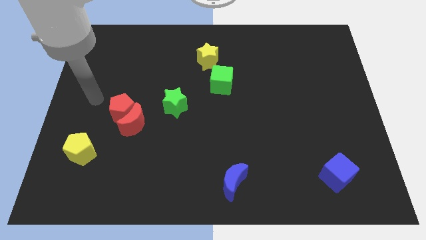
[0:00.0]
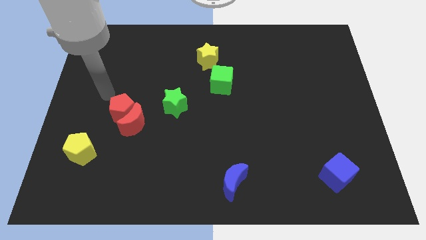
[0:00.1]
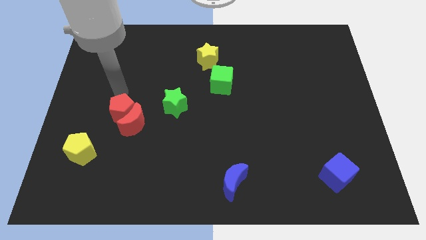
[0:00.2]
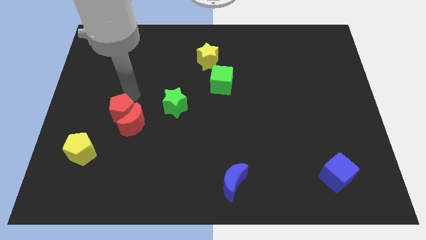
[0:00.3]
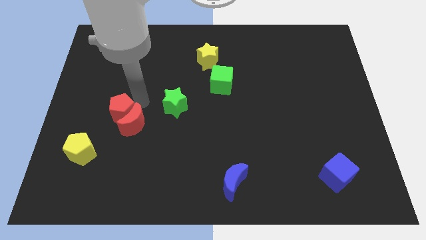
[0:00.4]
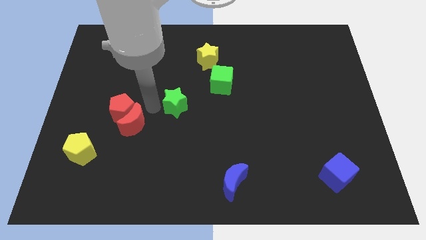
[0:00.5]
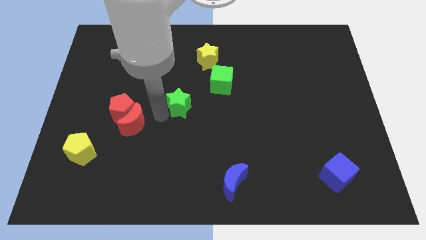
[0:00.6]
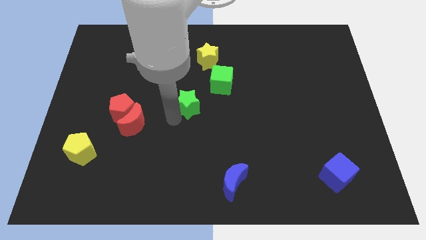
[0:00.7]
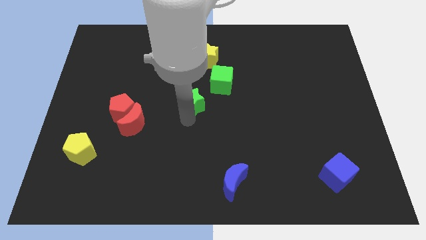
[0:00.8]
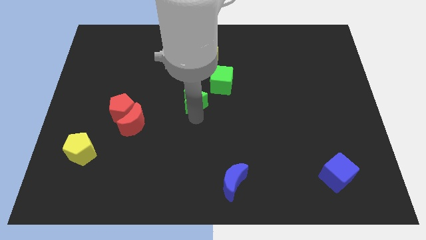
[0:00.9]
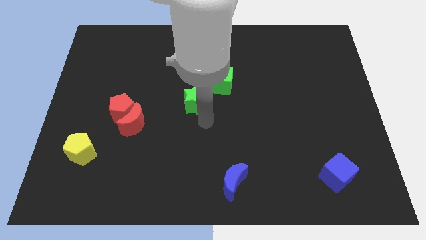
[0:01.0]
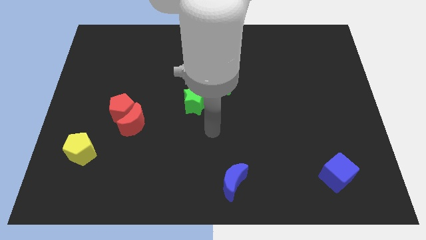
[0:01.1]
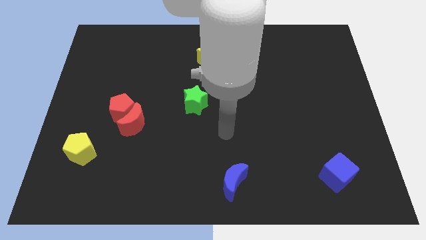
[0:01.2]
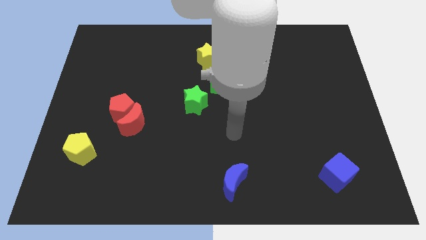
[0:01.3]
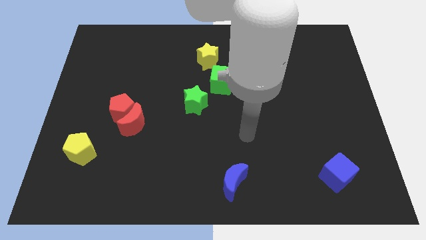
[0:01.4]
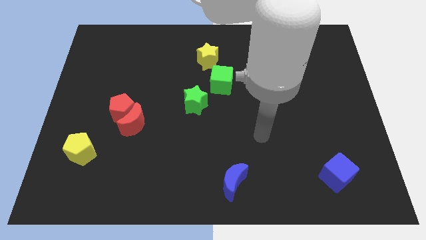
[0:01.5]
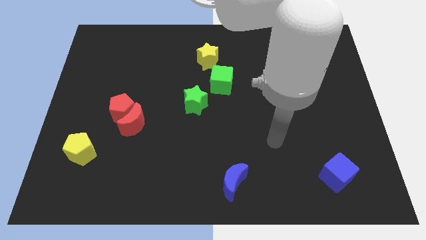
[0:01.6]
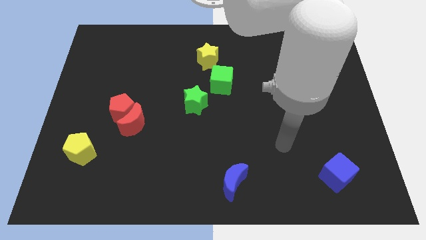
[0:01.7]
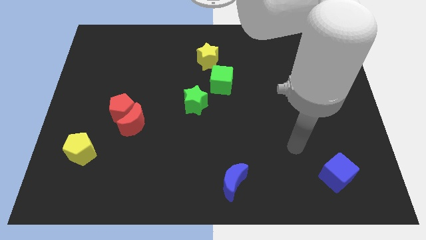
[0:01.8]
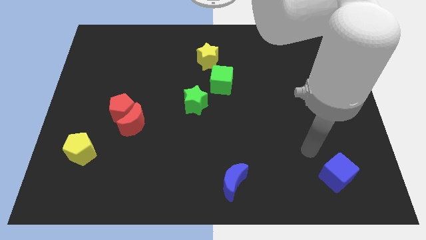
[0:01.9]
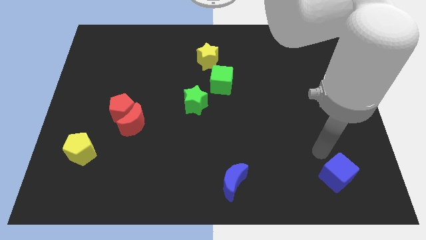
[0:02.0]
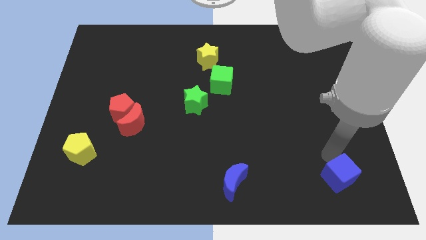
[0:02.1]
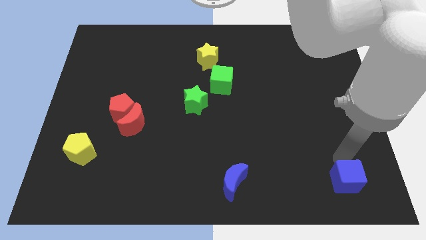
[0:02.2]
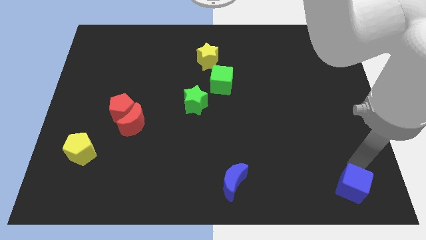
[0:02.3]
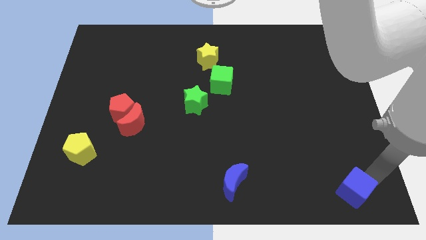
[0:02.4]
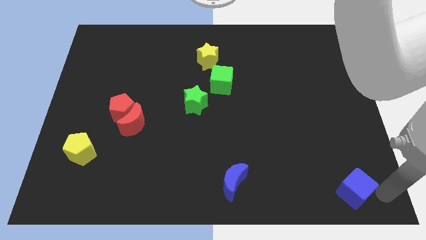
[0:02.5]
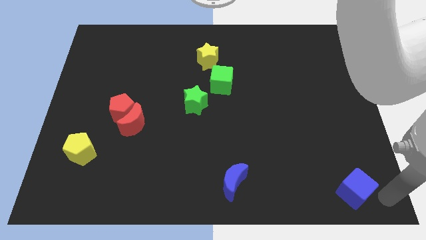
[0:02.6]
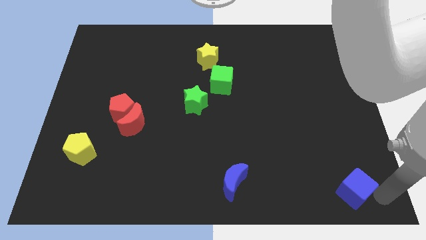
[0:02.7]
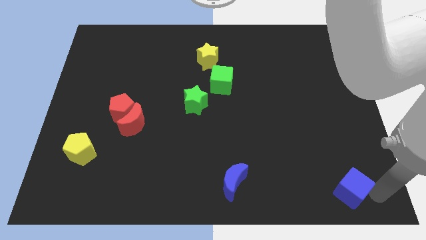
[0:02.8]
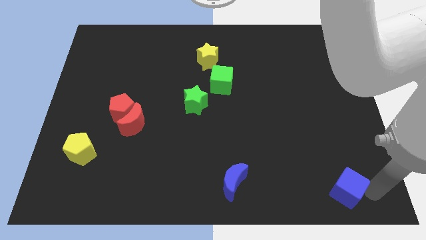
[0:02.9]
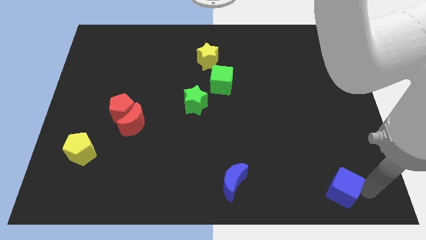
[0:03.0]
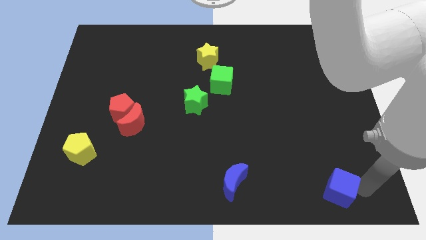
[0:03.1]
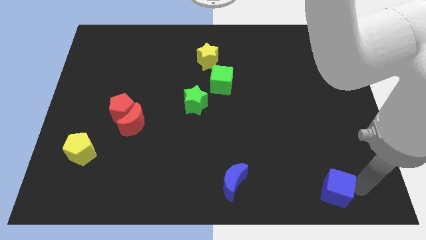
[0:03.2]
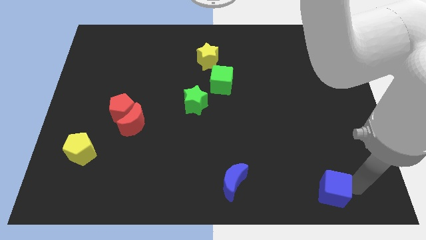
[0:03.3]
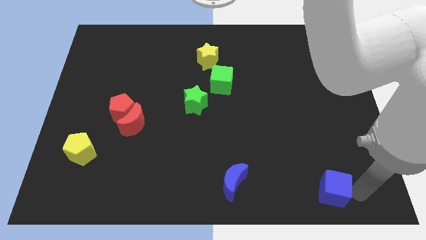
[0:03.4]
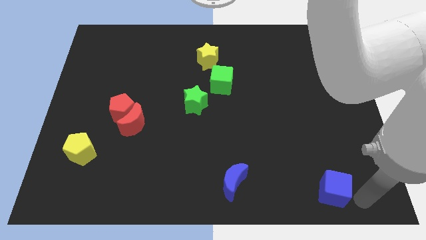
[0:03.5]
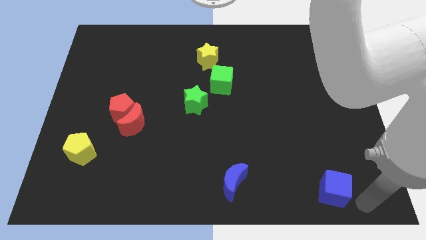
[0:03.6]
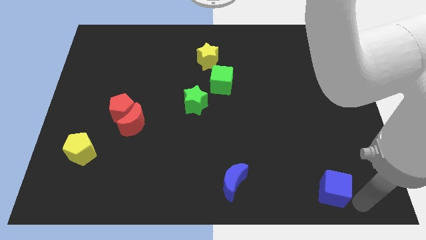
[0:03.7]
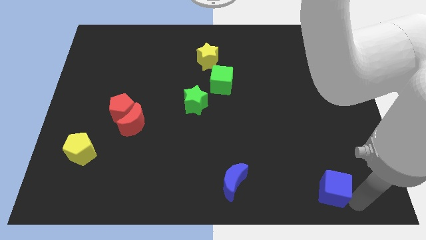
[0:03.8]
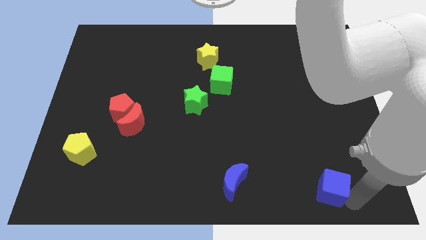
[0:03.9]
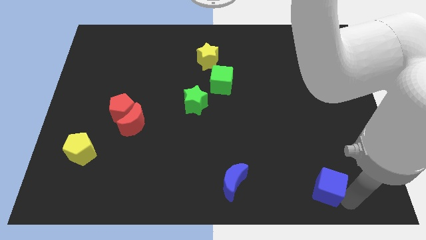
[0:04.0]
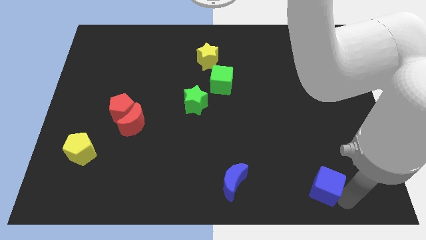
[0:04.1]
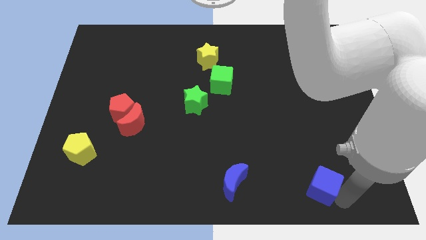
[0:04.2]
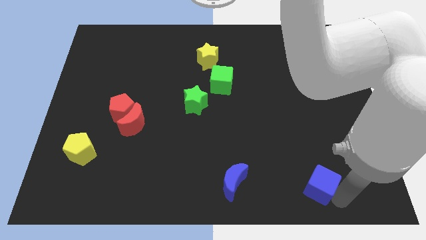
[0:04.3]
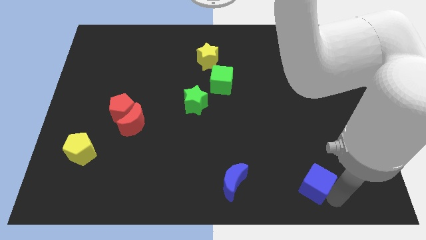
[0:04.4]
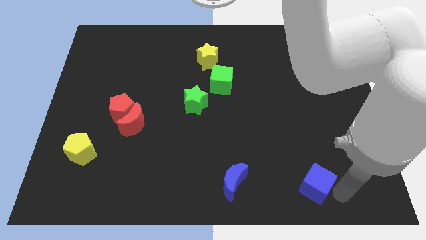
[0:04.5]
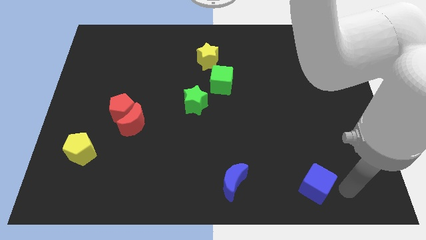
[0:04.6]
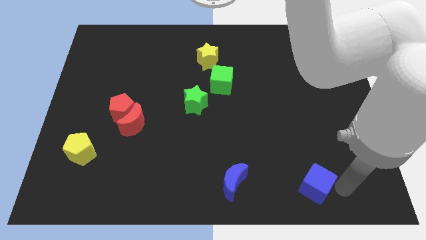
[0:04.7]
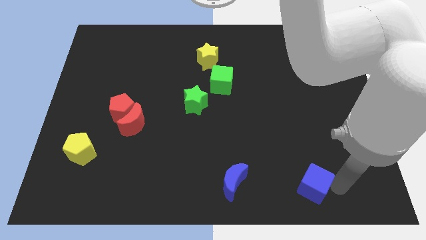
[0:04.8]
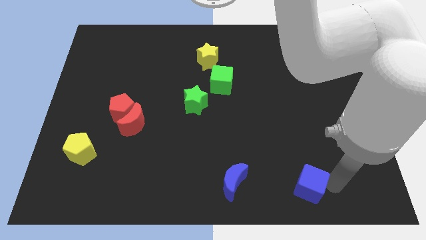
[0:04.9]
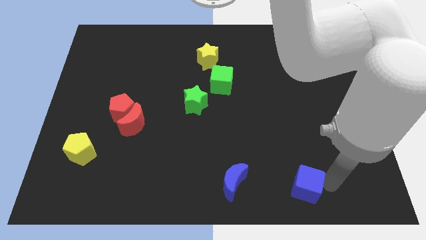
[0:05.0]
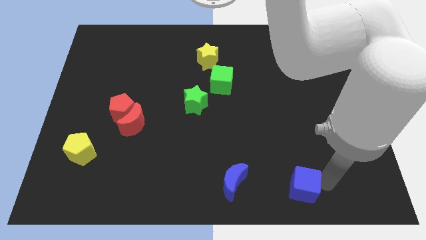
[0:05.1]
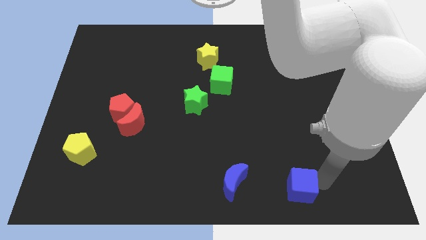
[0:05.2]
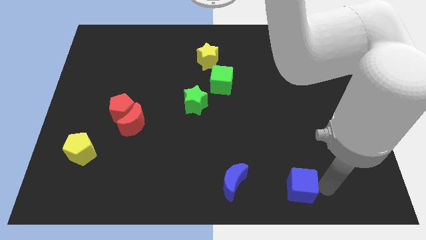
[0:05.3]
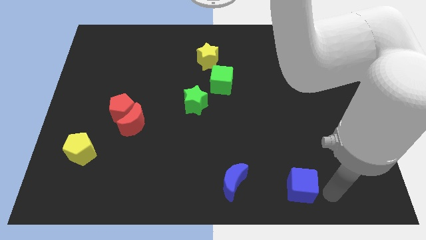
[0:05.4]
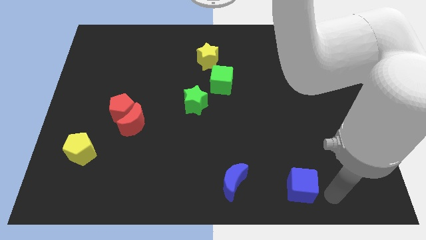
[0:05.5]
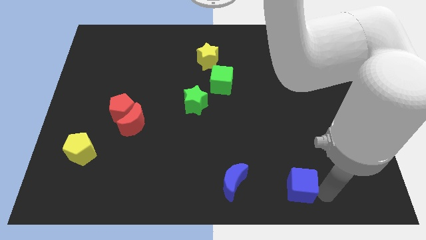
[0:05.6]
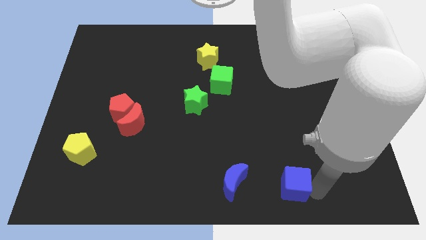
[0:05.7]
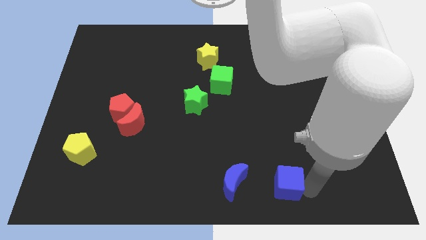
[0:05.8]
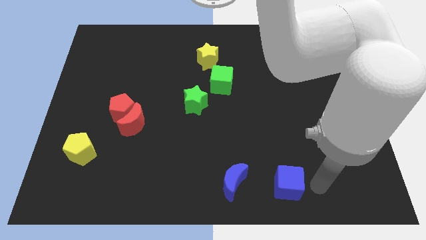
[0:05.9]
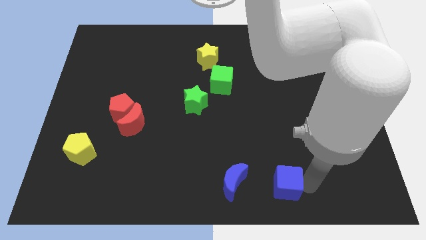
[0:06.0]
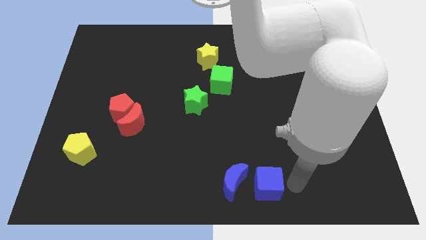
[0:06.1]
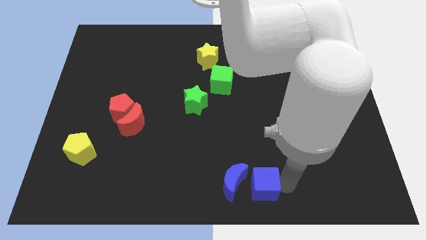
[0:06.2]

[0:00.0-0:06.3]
move the blue cube to the blue moon

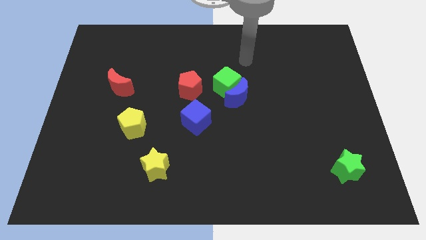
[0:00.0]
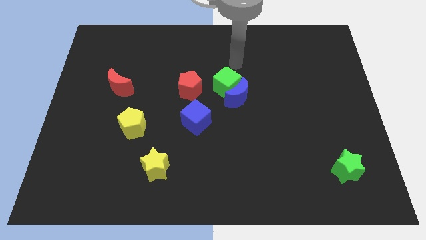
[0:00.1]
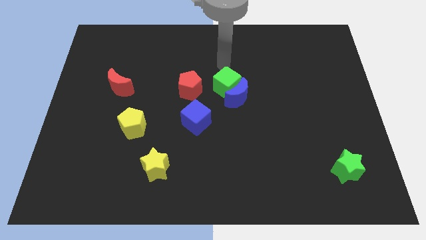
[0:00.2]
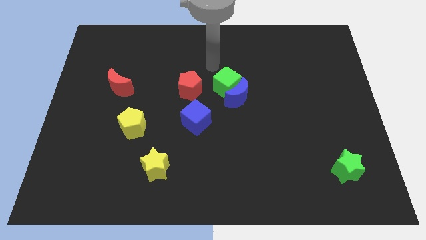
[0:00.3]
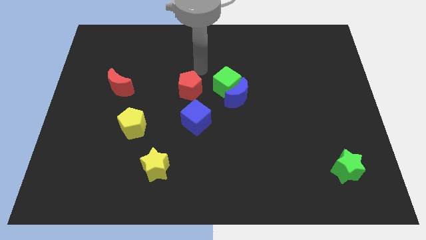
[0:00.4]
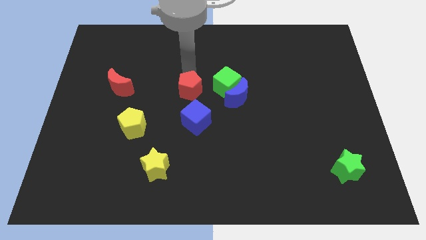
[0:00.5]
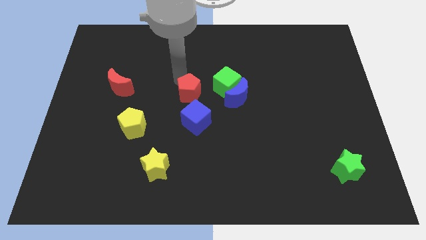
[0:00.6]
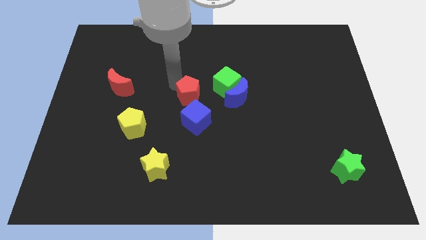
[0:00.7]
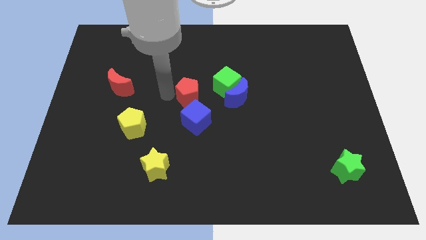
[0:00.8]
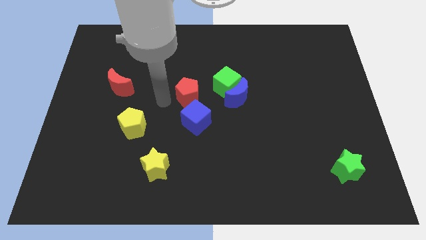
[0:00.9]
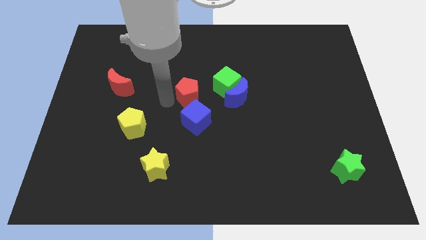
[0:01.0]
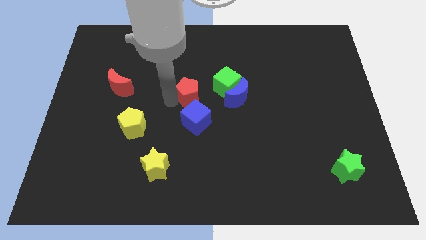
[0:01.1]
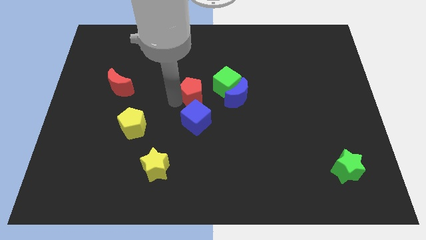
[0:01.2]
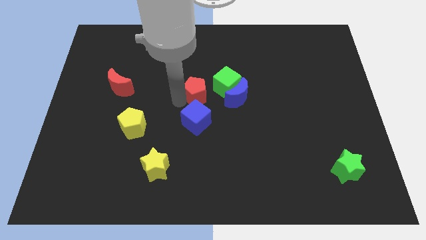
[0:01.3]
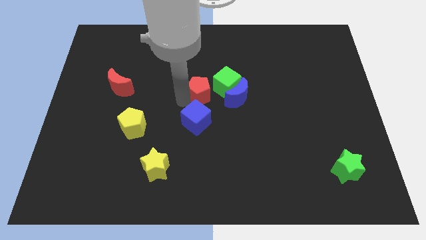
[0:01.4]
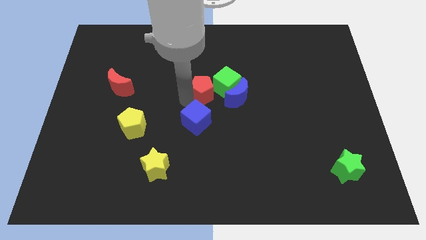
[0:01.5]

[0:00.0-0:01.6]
put the red pentagon close to the green cube

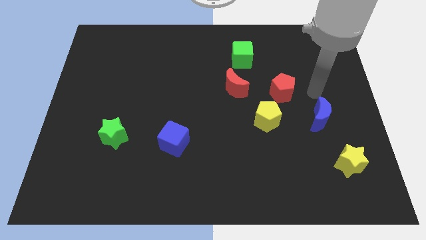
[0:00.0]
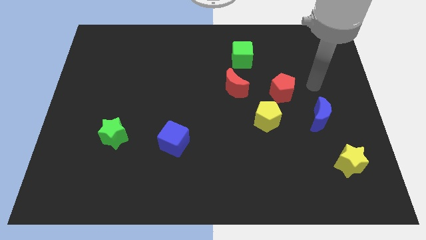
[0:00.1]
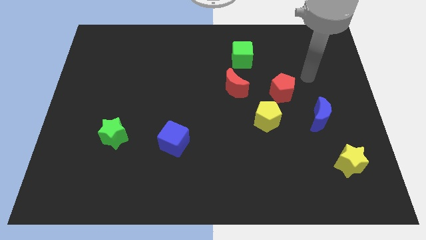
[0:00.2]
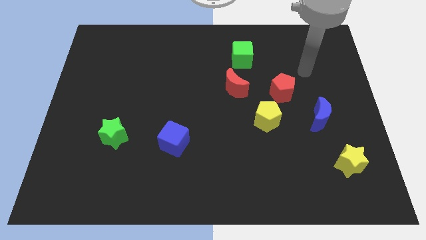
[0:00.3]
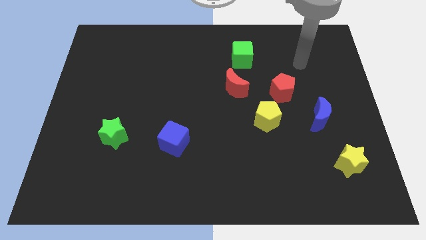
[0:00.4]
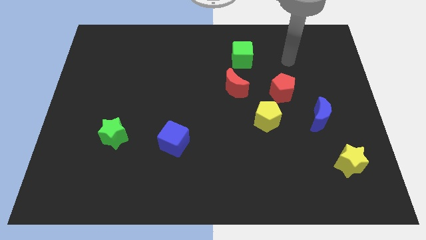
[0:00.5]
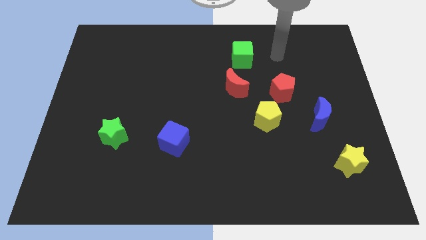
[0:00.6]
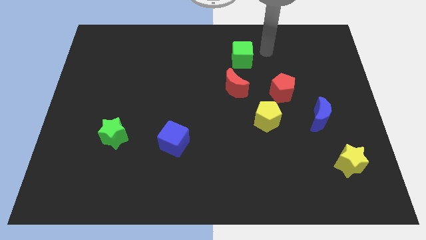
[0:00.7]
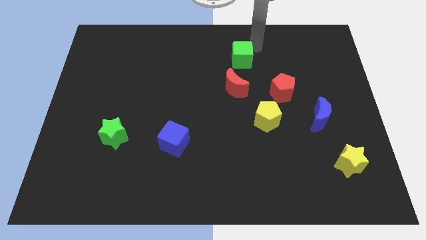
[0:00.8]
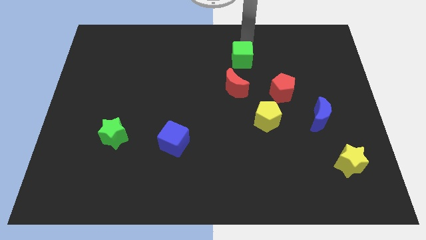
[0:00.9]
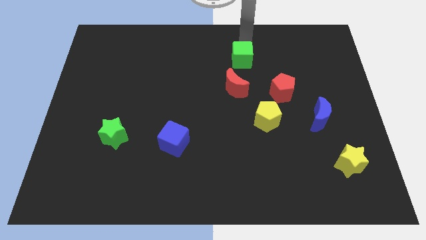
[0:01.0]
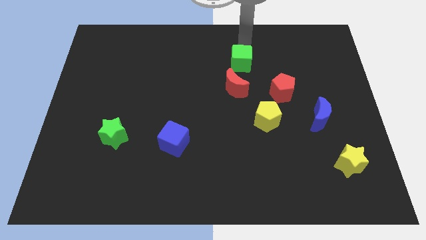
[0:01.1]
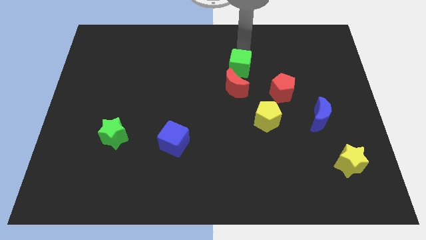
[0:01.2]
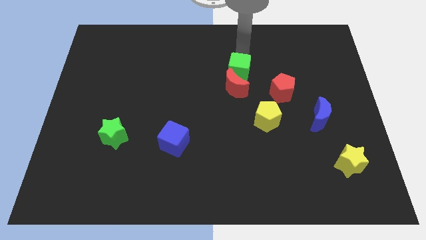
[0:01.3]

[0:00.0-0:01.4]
put the green cube next to the red moon
